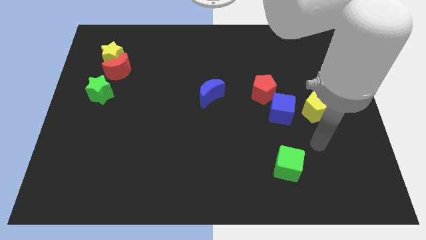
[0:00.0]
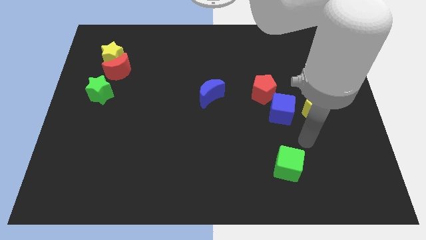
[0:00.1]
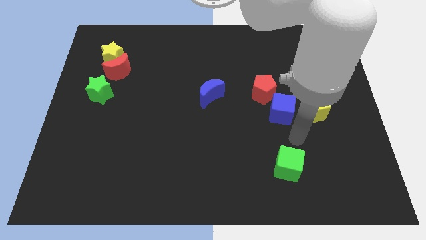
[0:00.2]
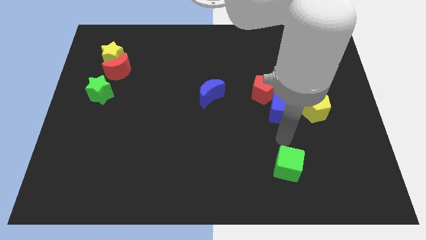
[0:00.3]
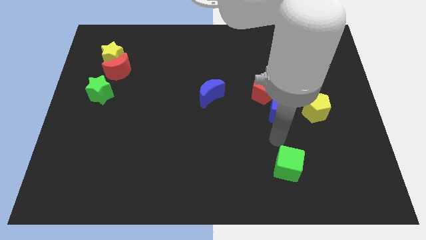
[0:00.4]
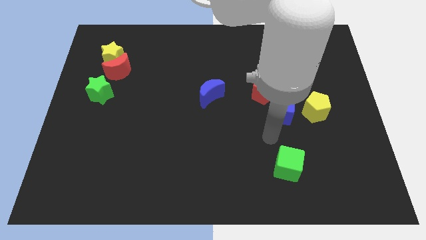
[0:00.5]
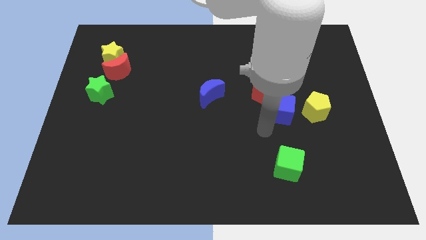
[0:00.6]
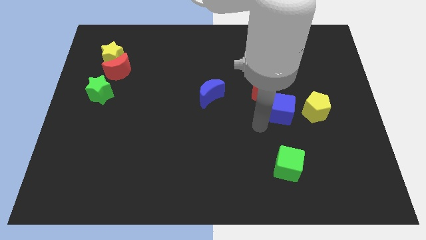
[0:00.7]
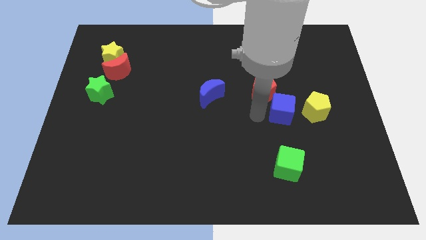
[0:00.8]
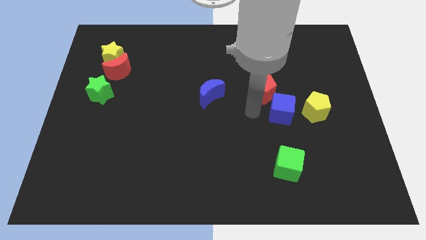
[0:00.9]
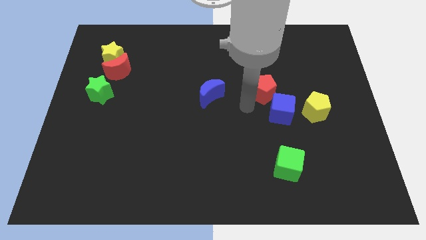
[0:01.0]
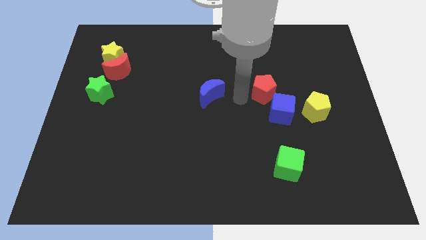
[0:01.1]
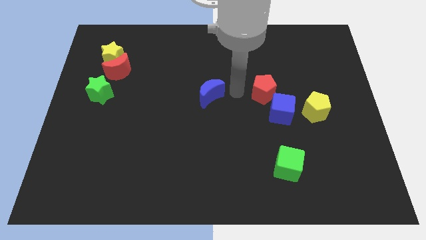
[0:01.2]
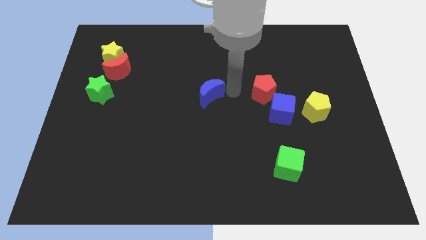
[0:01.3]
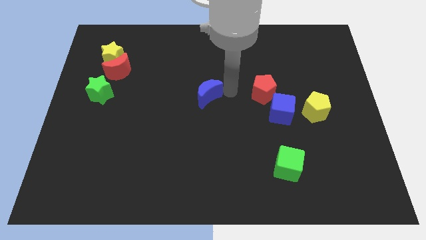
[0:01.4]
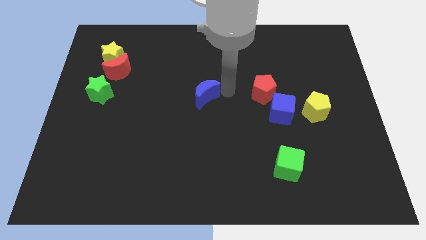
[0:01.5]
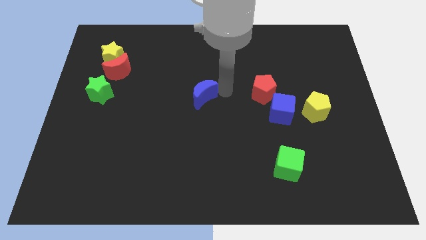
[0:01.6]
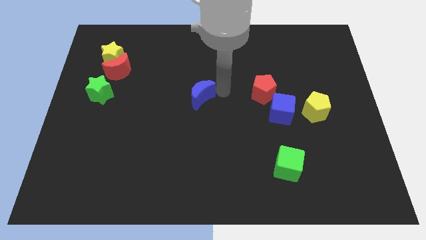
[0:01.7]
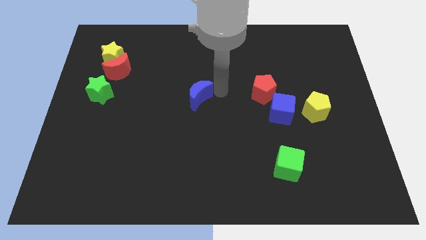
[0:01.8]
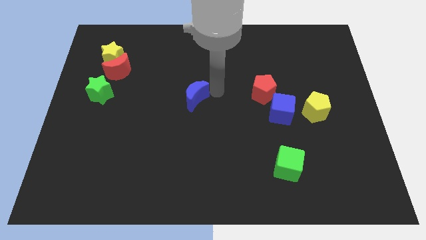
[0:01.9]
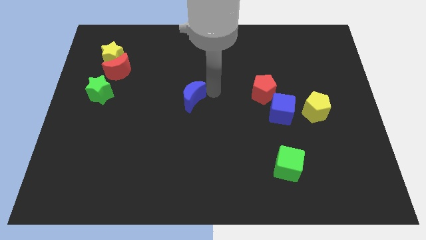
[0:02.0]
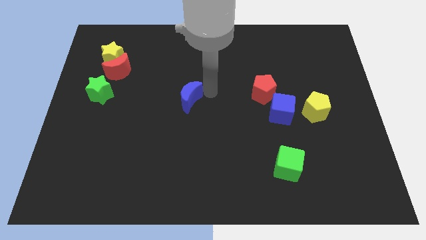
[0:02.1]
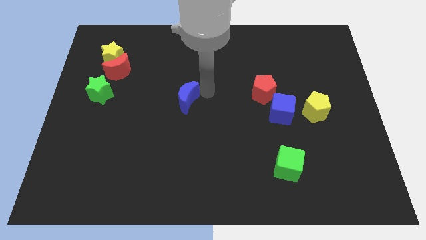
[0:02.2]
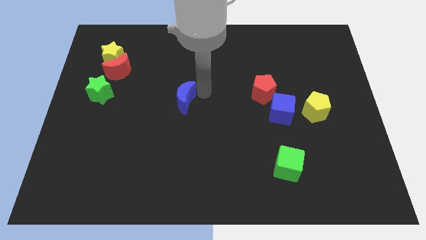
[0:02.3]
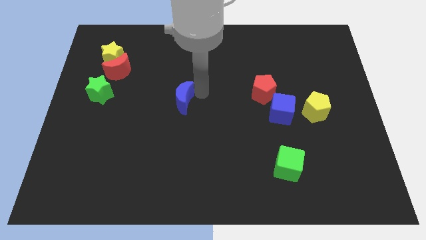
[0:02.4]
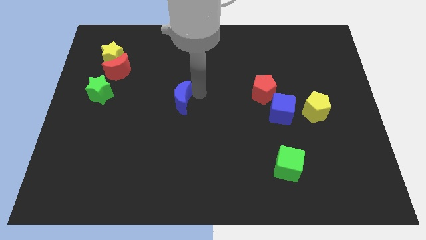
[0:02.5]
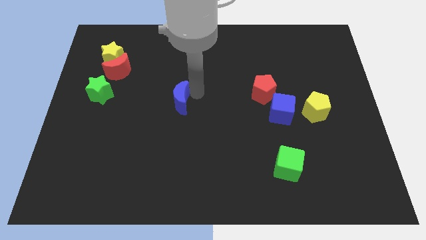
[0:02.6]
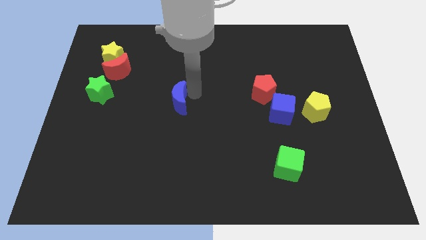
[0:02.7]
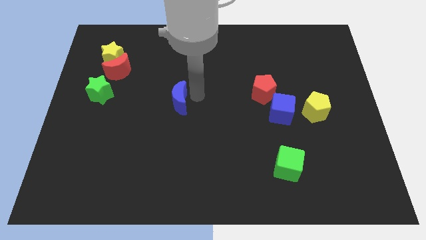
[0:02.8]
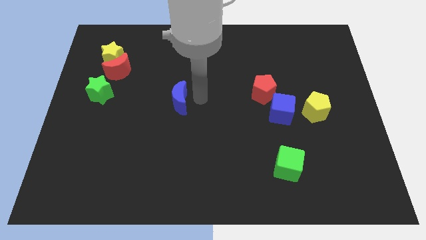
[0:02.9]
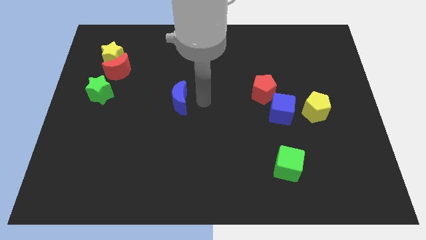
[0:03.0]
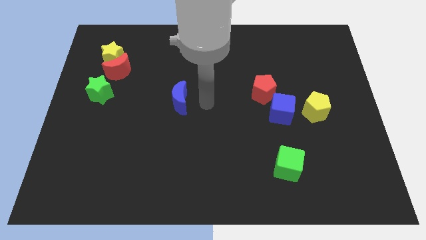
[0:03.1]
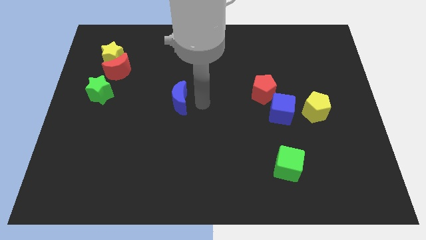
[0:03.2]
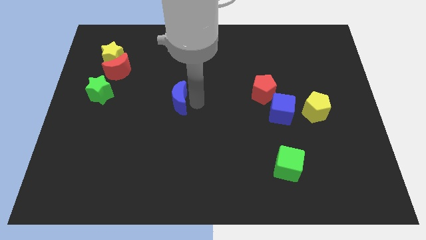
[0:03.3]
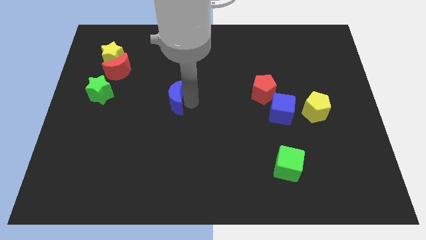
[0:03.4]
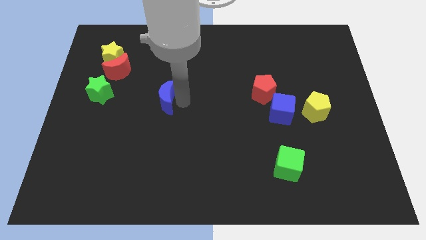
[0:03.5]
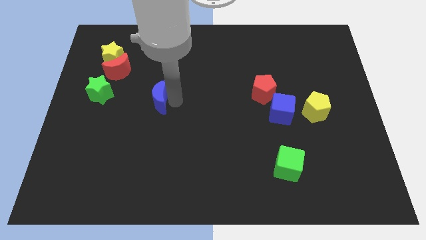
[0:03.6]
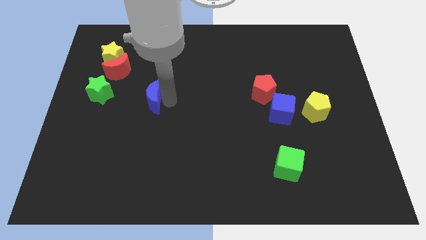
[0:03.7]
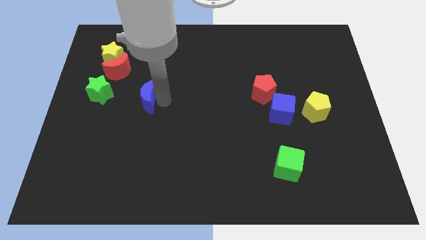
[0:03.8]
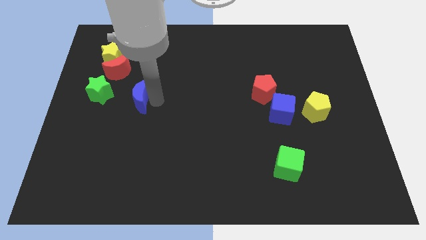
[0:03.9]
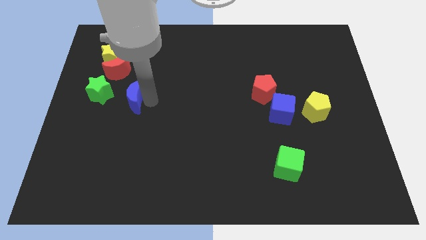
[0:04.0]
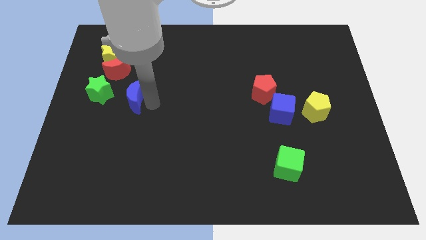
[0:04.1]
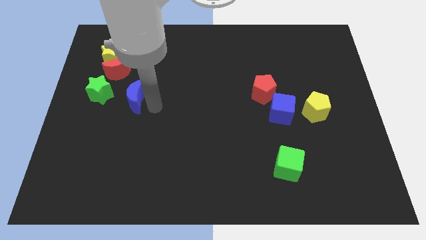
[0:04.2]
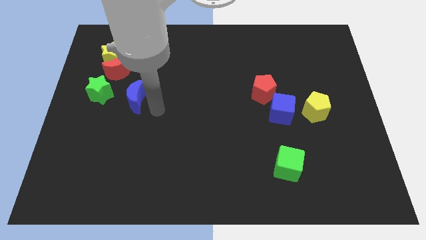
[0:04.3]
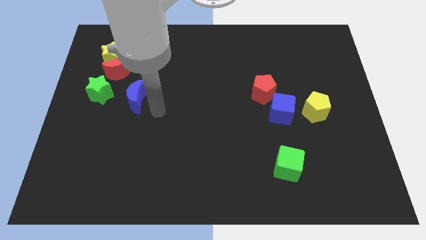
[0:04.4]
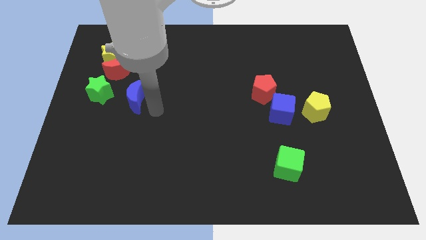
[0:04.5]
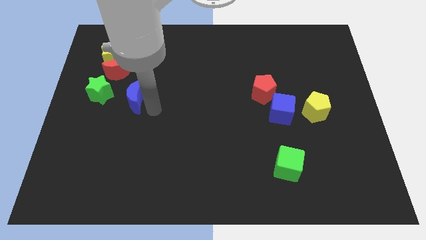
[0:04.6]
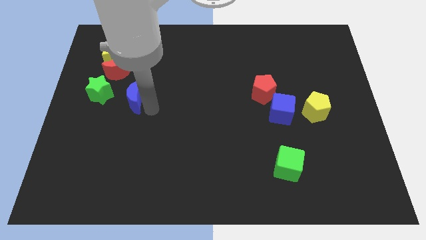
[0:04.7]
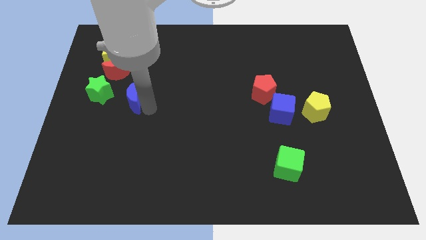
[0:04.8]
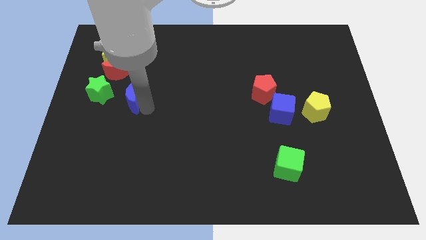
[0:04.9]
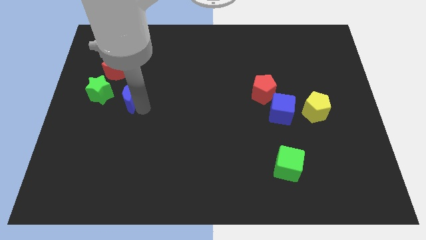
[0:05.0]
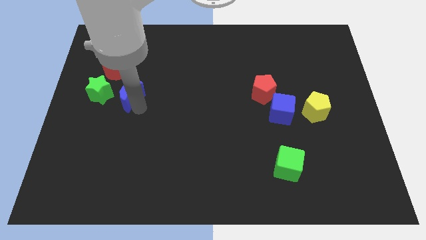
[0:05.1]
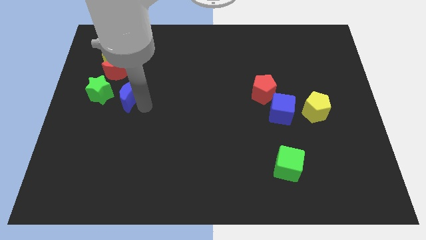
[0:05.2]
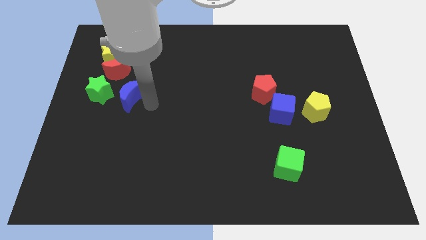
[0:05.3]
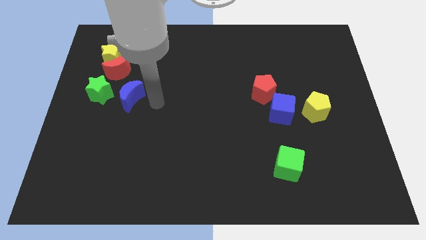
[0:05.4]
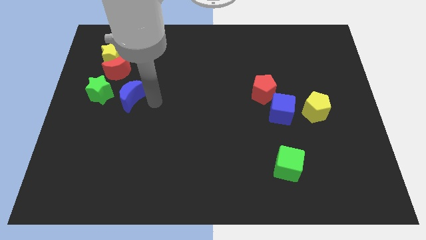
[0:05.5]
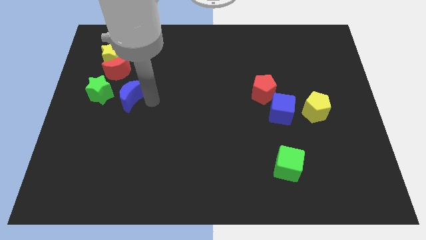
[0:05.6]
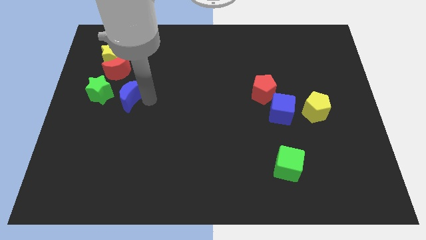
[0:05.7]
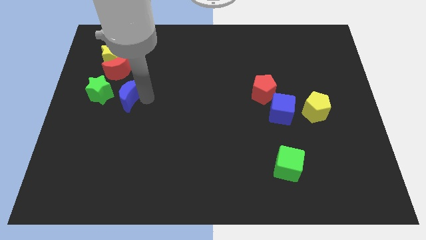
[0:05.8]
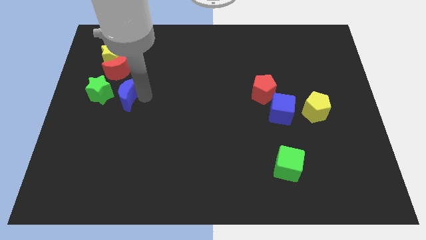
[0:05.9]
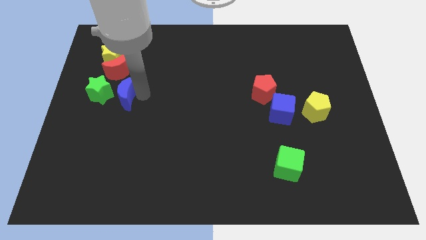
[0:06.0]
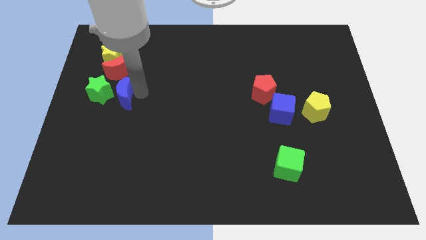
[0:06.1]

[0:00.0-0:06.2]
slide the blue moon next to the green star

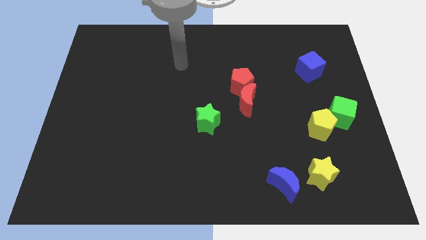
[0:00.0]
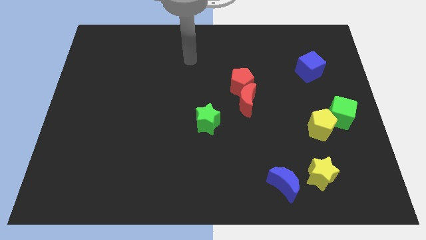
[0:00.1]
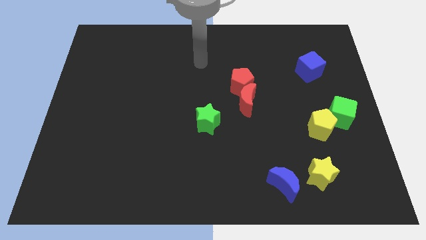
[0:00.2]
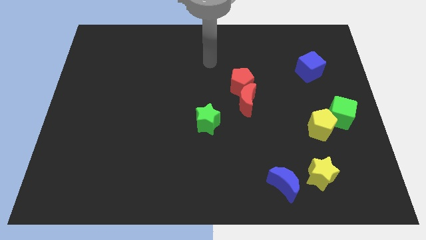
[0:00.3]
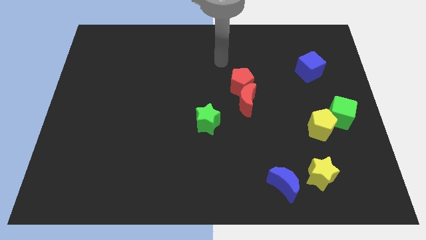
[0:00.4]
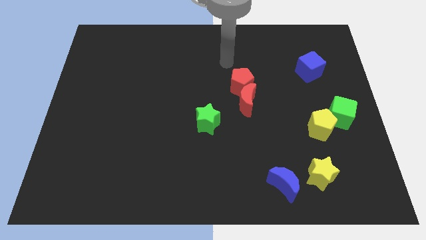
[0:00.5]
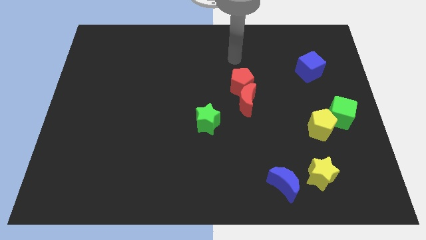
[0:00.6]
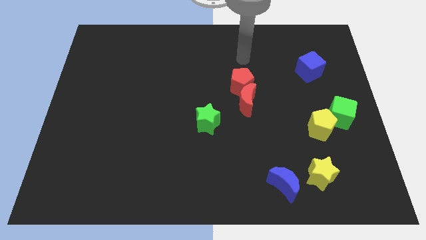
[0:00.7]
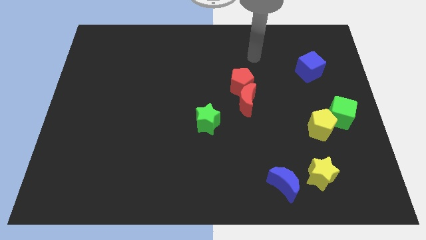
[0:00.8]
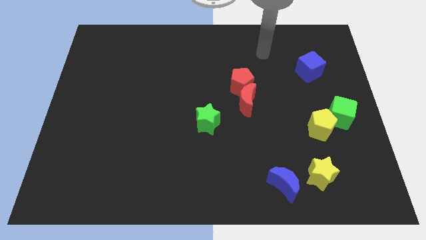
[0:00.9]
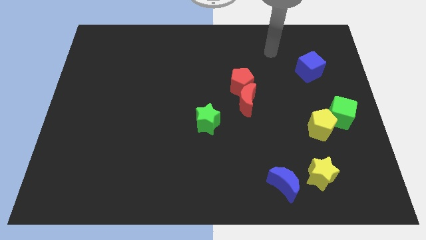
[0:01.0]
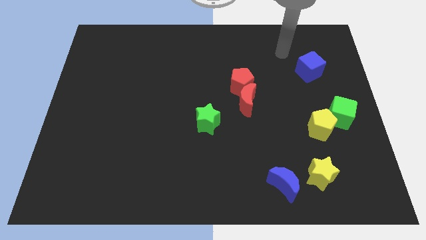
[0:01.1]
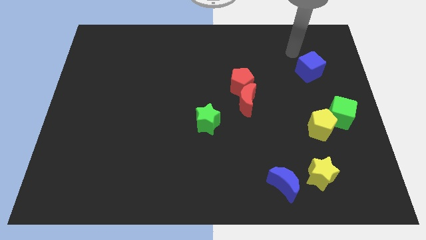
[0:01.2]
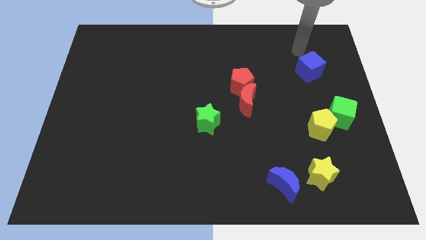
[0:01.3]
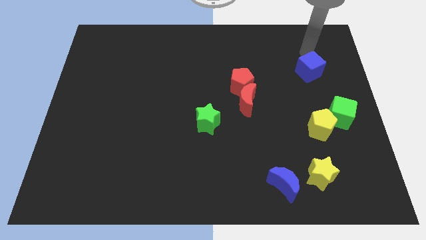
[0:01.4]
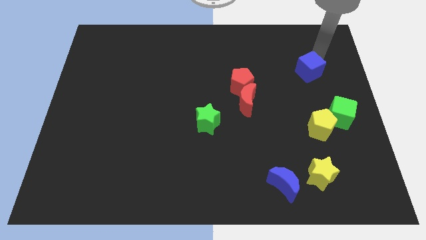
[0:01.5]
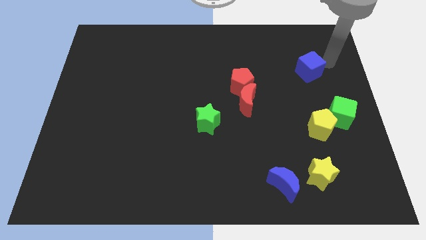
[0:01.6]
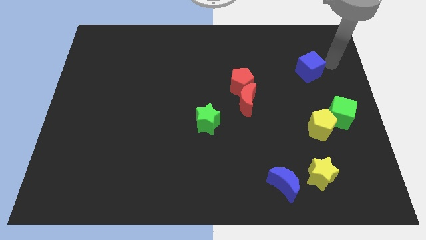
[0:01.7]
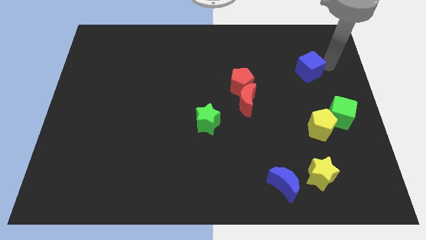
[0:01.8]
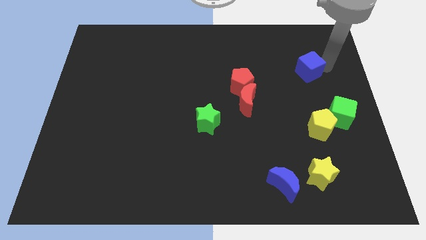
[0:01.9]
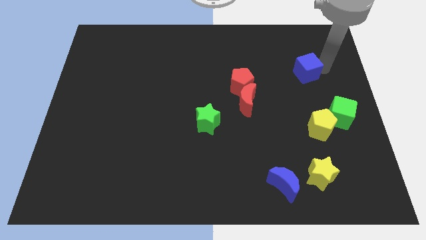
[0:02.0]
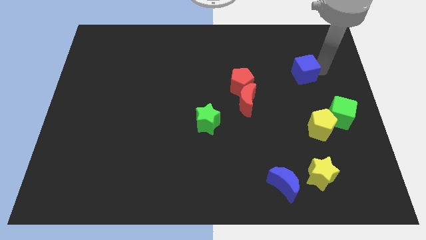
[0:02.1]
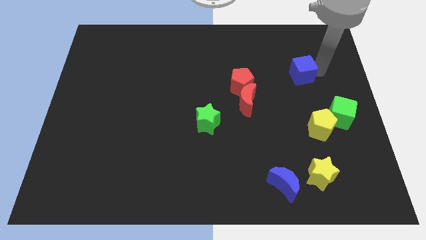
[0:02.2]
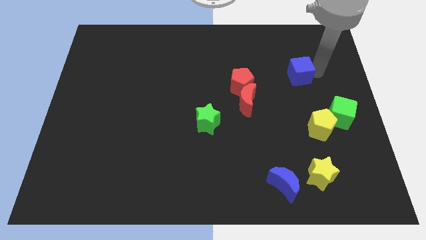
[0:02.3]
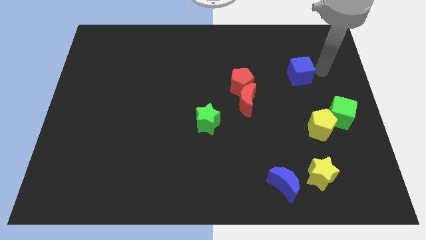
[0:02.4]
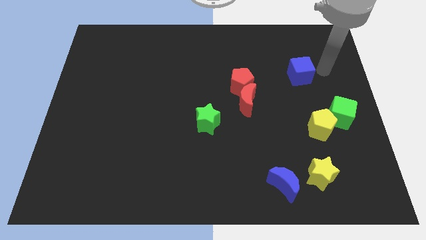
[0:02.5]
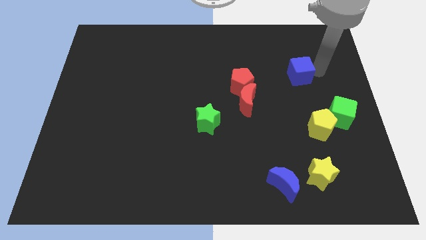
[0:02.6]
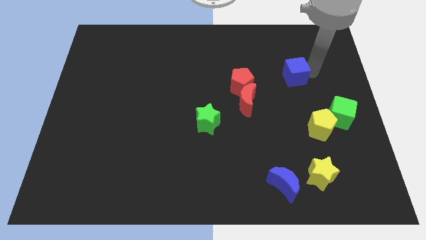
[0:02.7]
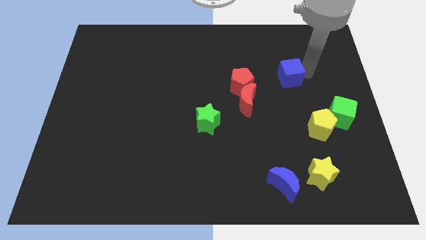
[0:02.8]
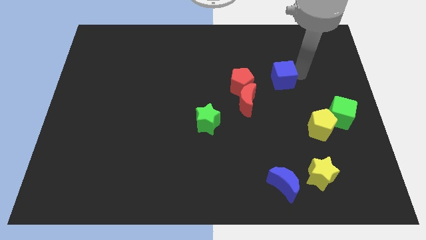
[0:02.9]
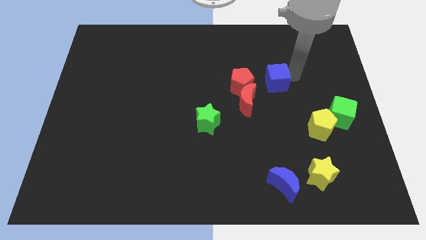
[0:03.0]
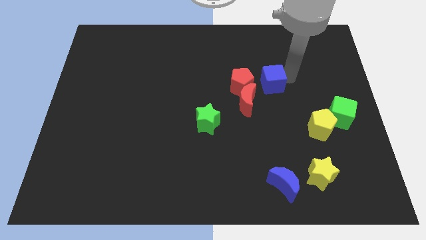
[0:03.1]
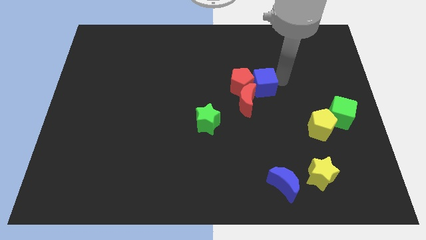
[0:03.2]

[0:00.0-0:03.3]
move the blue cube next to the red pentagon
